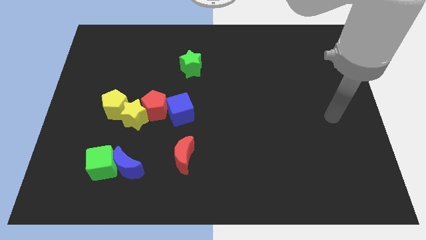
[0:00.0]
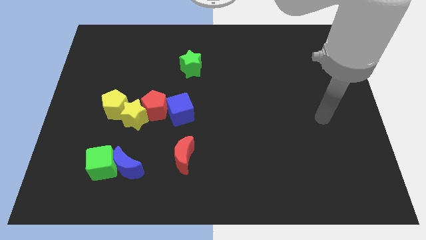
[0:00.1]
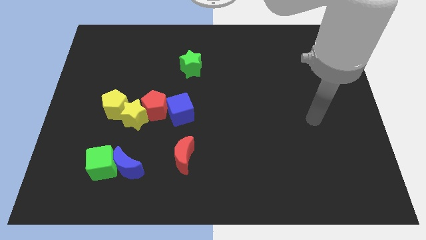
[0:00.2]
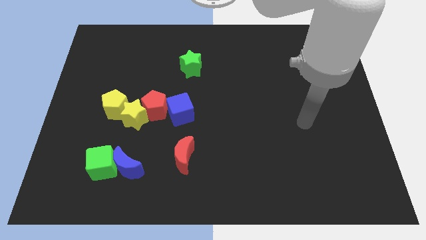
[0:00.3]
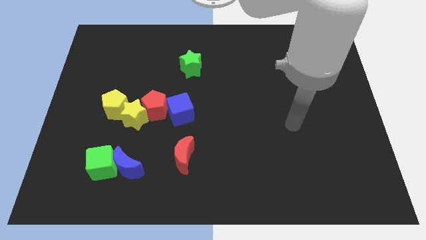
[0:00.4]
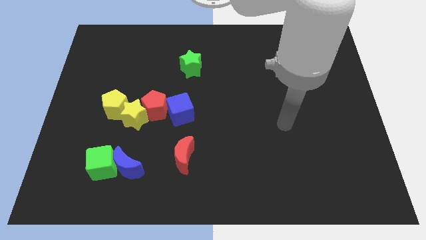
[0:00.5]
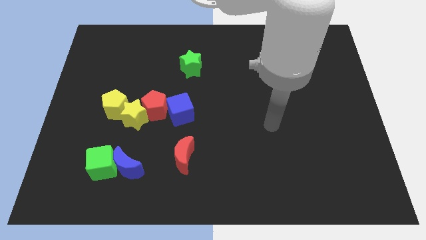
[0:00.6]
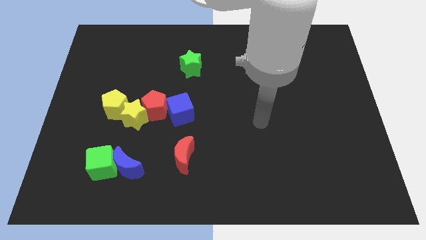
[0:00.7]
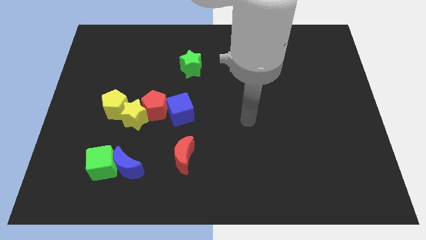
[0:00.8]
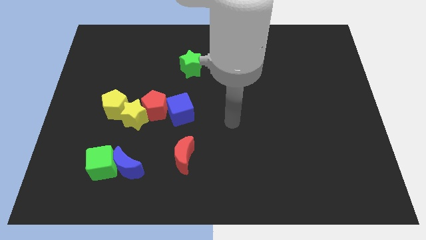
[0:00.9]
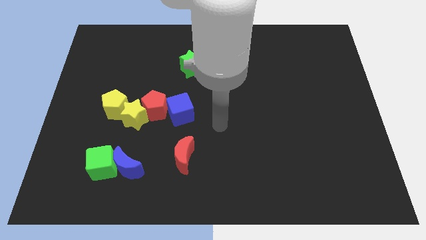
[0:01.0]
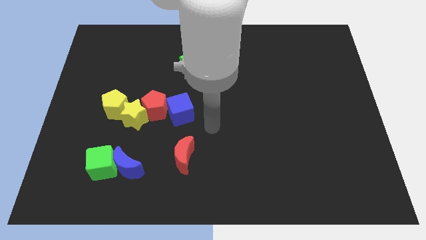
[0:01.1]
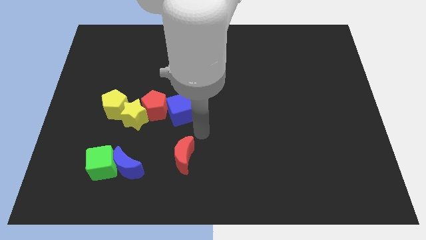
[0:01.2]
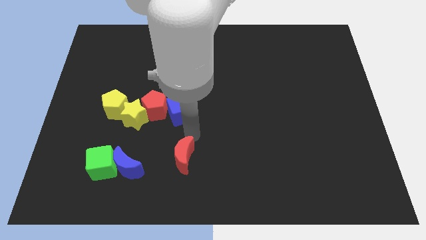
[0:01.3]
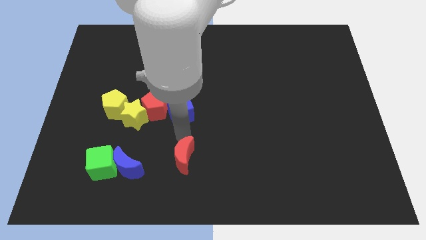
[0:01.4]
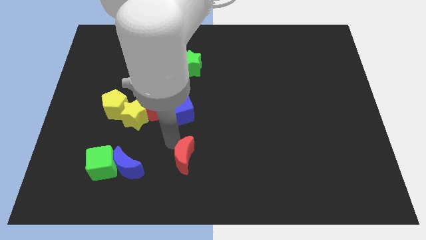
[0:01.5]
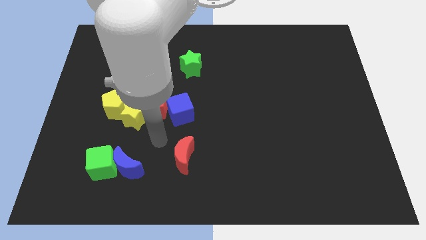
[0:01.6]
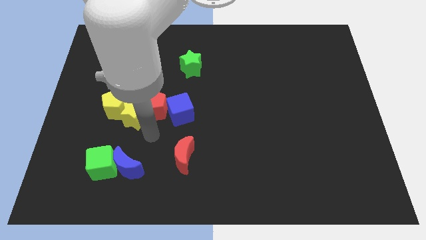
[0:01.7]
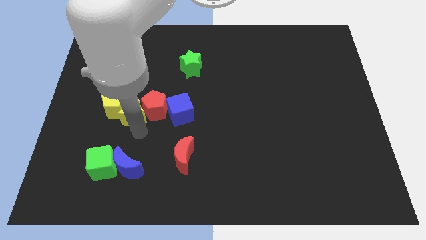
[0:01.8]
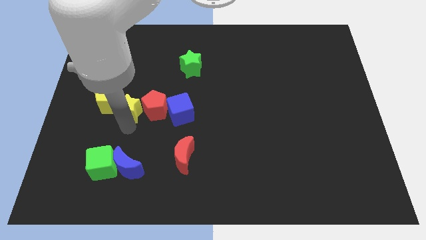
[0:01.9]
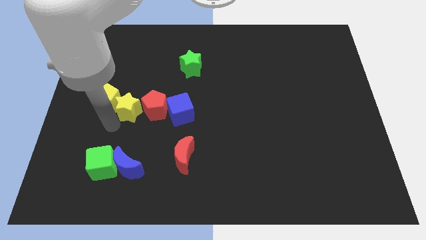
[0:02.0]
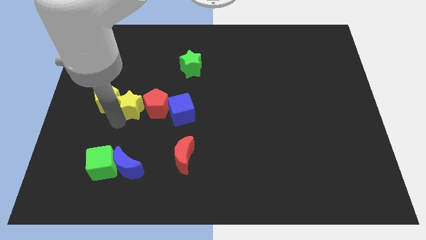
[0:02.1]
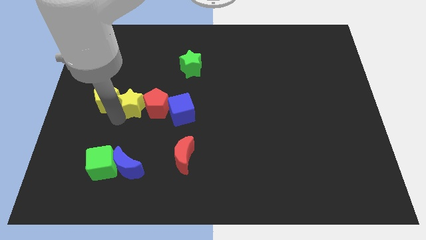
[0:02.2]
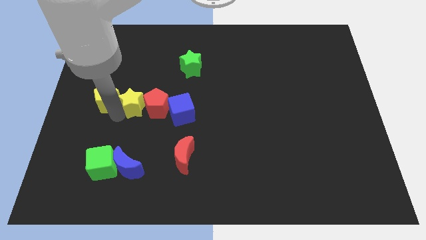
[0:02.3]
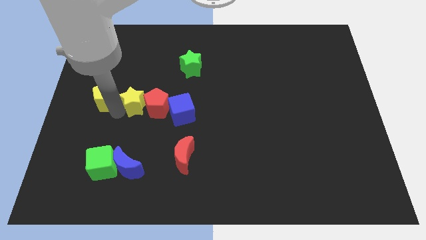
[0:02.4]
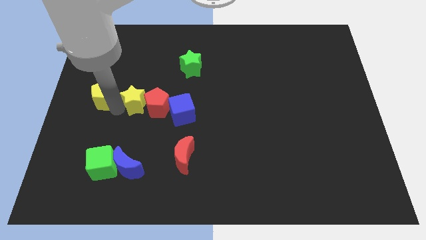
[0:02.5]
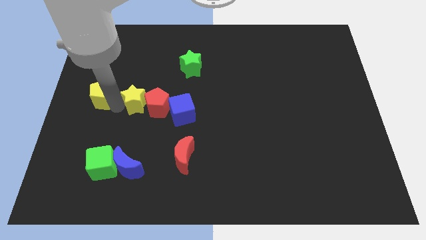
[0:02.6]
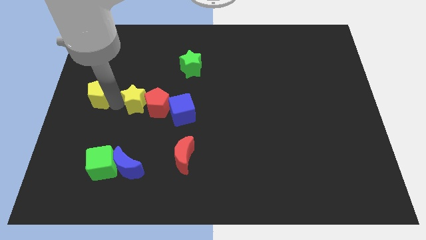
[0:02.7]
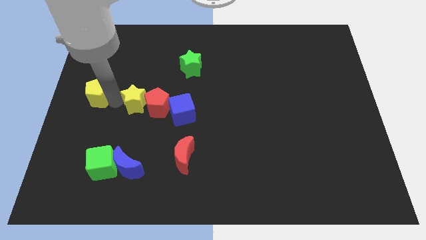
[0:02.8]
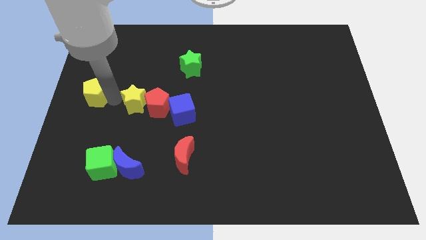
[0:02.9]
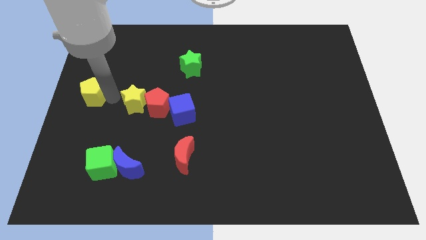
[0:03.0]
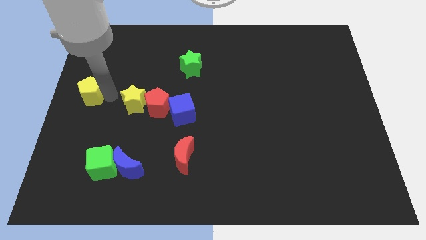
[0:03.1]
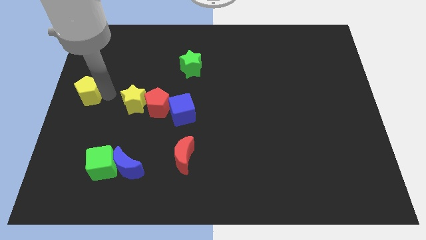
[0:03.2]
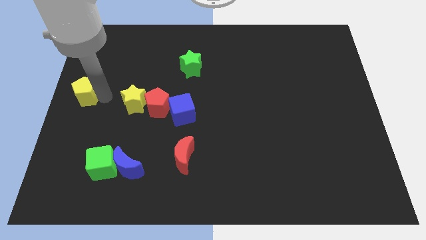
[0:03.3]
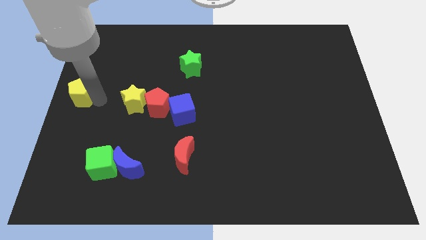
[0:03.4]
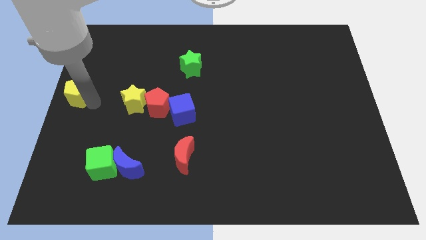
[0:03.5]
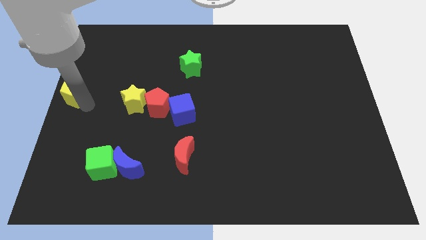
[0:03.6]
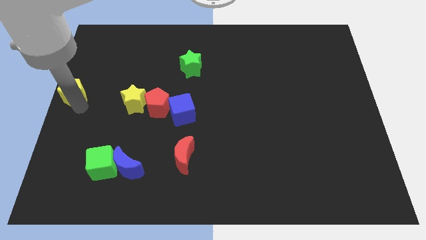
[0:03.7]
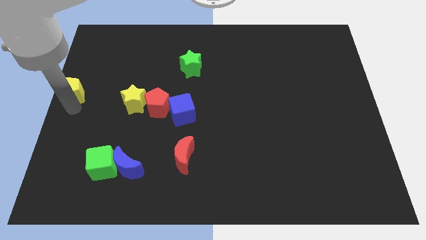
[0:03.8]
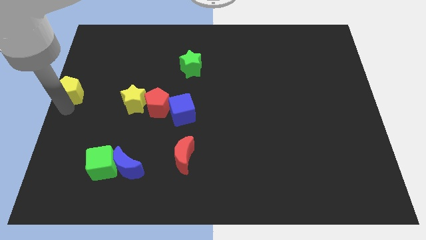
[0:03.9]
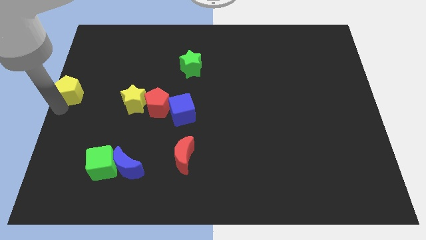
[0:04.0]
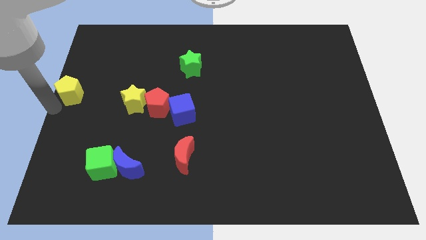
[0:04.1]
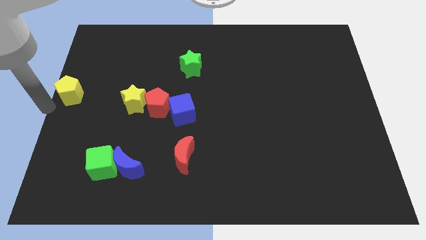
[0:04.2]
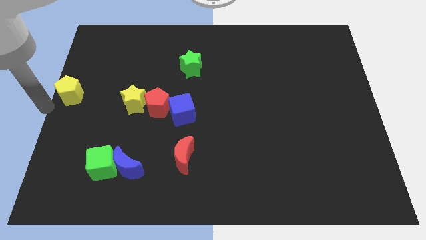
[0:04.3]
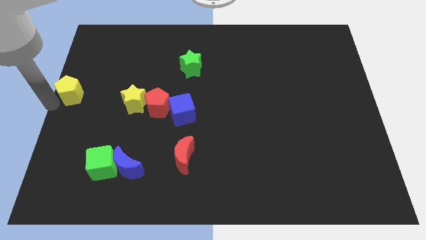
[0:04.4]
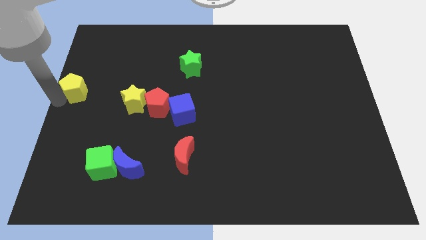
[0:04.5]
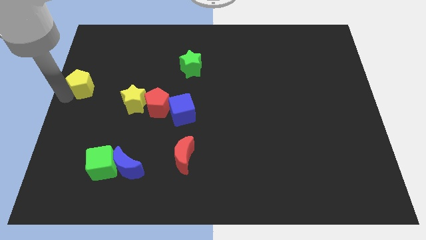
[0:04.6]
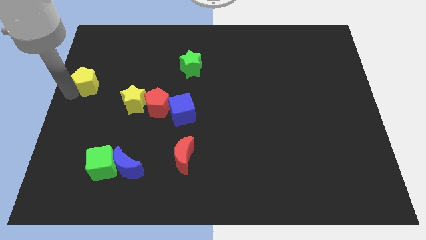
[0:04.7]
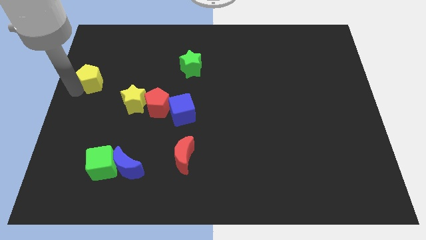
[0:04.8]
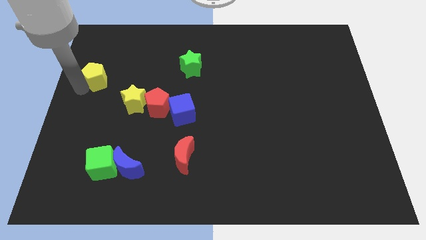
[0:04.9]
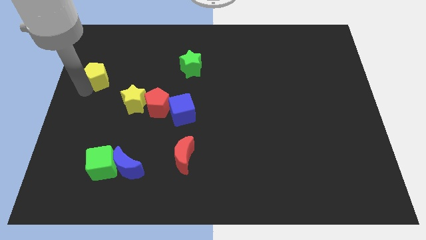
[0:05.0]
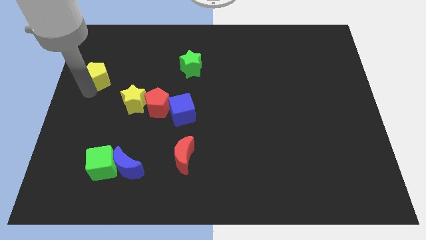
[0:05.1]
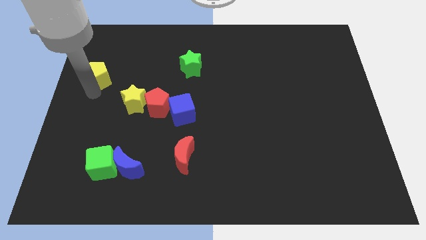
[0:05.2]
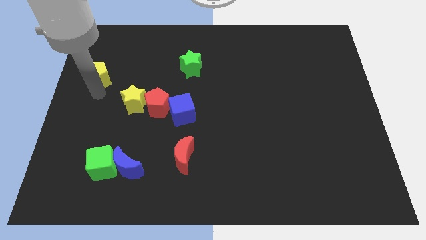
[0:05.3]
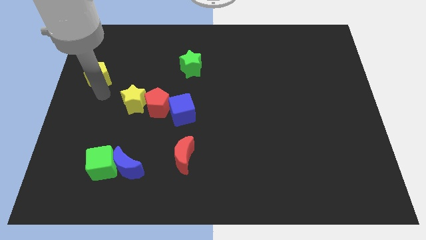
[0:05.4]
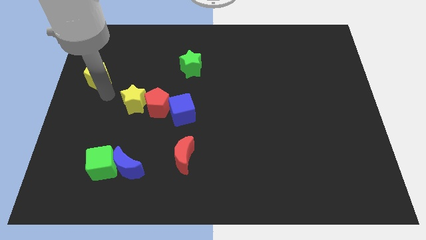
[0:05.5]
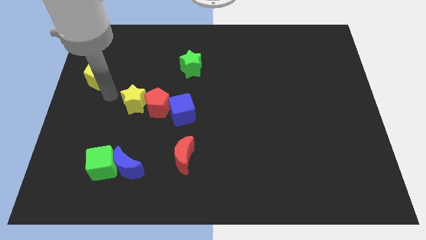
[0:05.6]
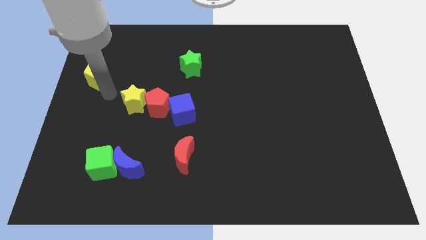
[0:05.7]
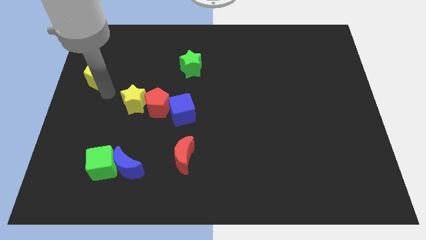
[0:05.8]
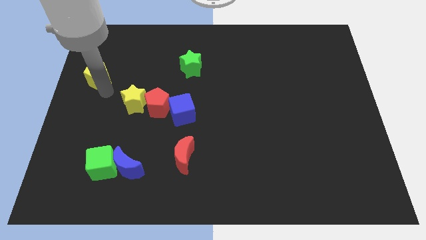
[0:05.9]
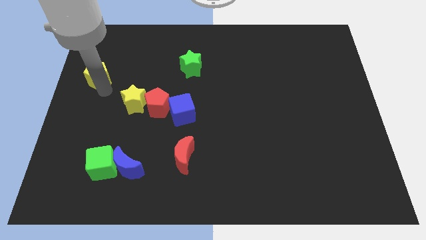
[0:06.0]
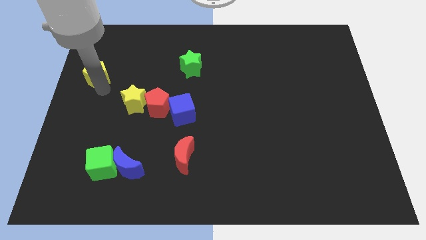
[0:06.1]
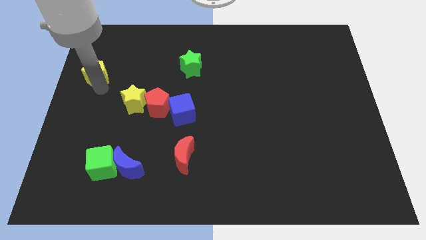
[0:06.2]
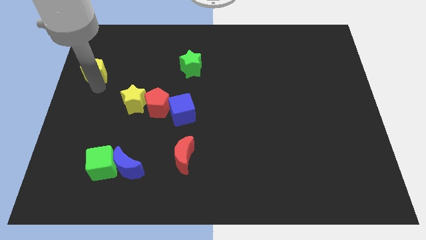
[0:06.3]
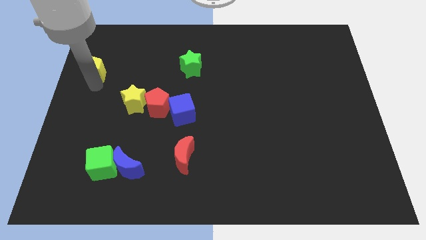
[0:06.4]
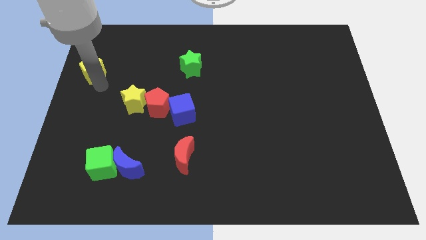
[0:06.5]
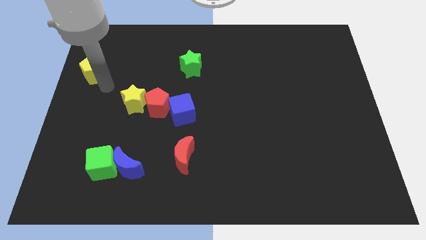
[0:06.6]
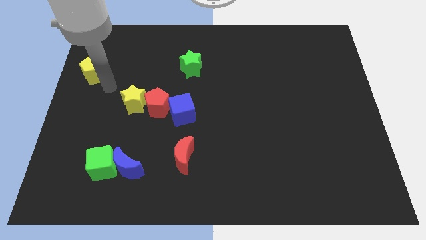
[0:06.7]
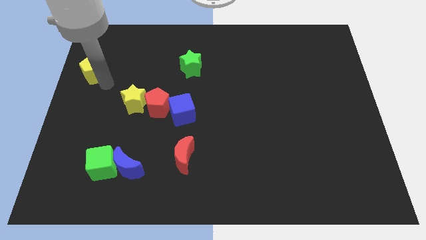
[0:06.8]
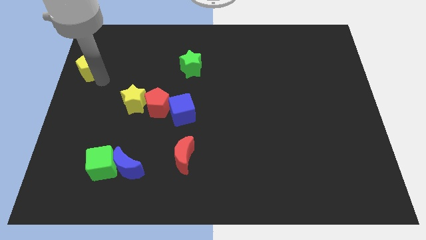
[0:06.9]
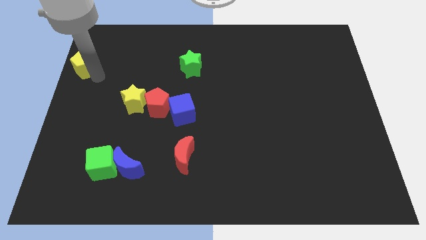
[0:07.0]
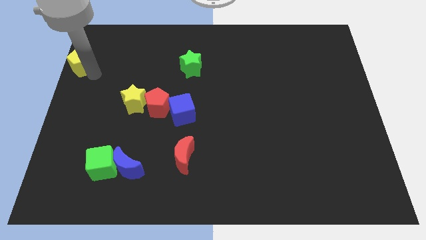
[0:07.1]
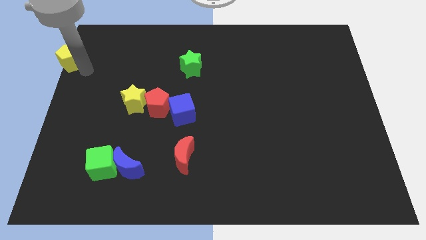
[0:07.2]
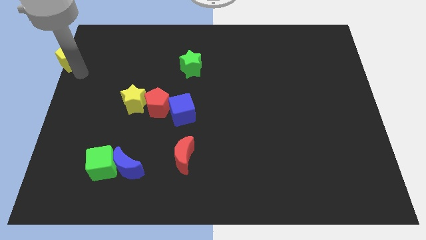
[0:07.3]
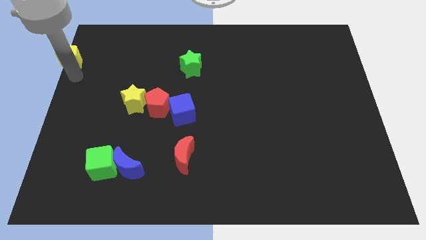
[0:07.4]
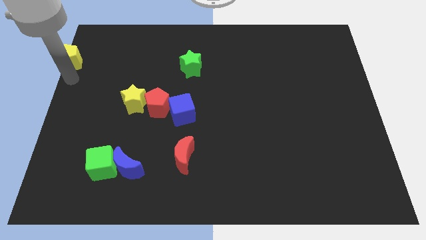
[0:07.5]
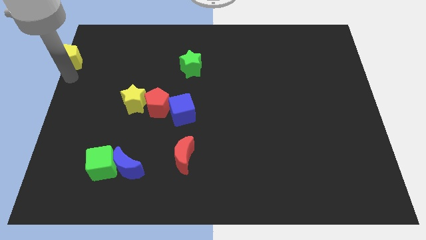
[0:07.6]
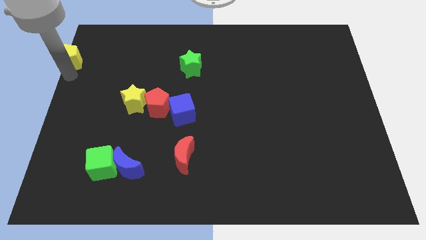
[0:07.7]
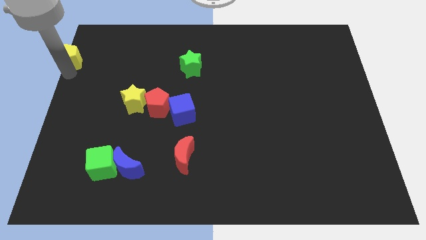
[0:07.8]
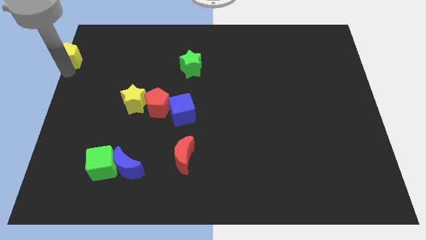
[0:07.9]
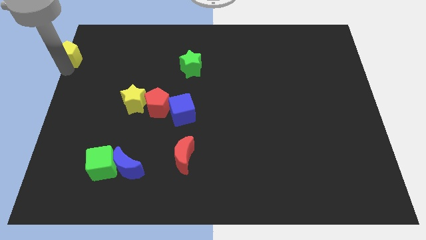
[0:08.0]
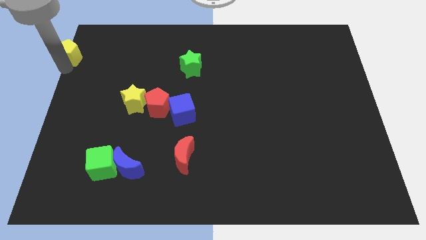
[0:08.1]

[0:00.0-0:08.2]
push the yellow pentagon to the upper left corner
